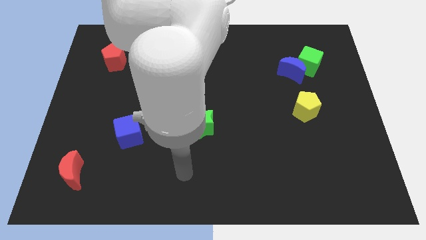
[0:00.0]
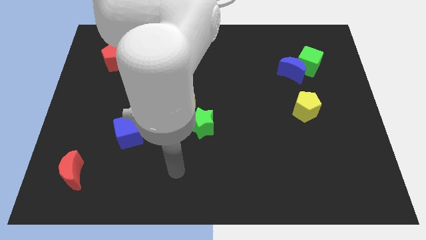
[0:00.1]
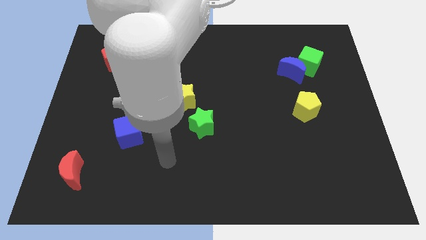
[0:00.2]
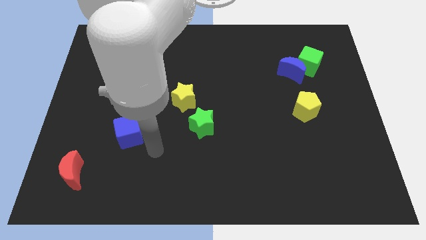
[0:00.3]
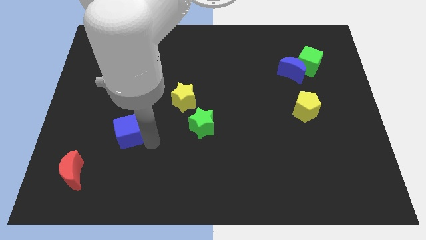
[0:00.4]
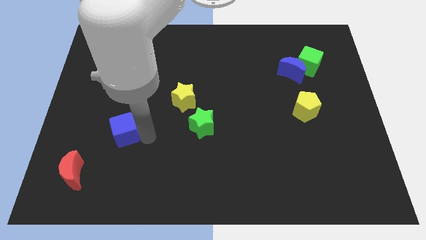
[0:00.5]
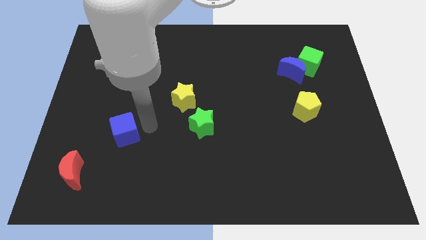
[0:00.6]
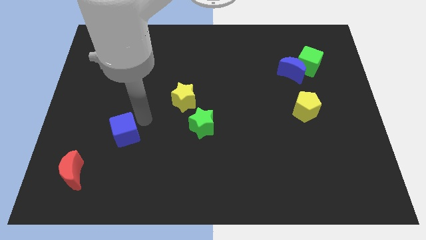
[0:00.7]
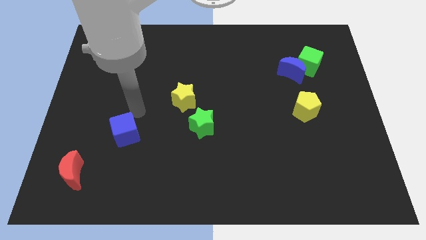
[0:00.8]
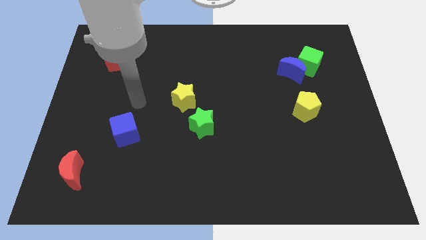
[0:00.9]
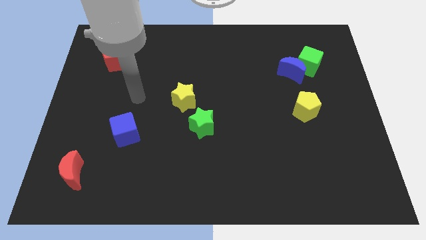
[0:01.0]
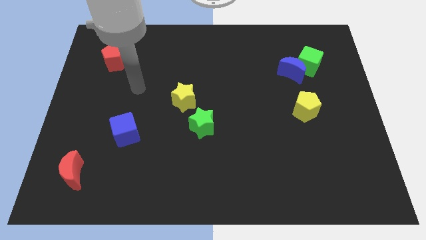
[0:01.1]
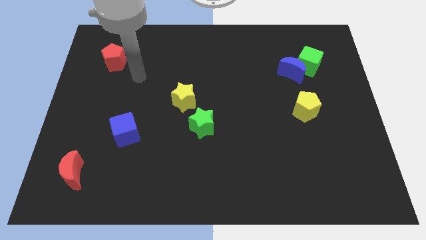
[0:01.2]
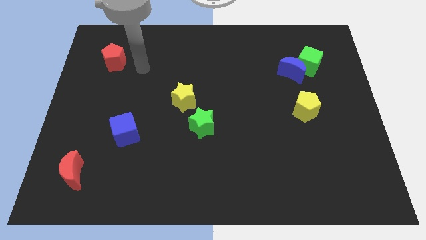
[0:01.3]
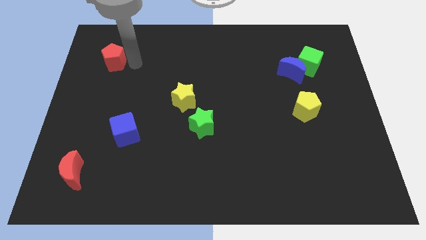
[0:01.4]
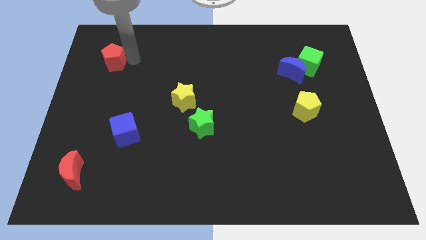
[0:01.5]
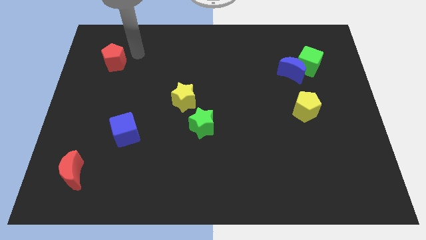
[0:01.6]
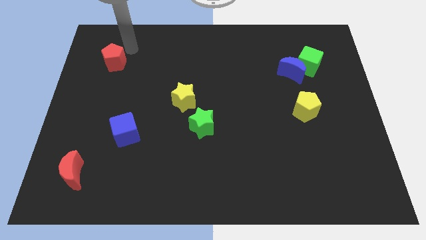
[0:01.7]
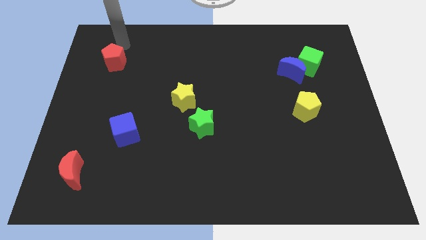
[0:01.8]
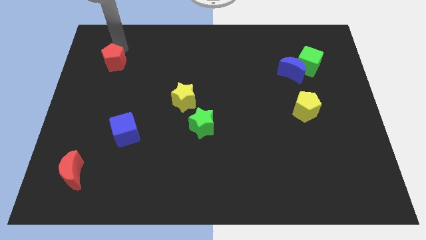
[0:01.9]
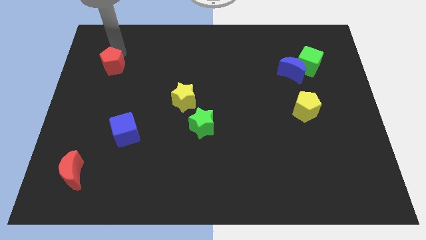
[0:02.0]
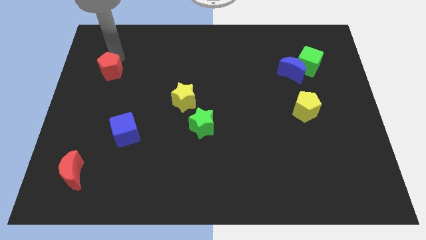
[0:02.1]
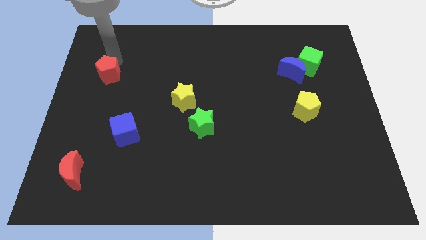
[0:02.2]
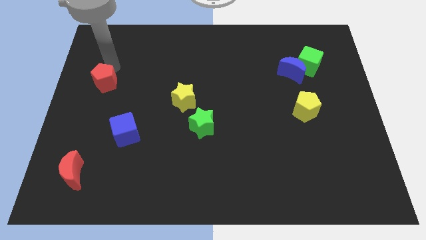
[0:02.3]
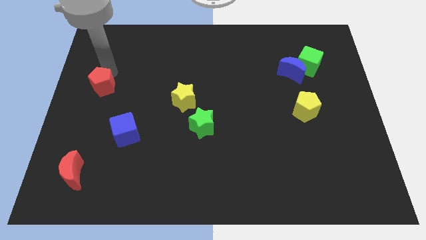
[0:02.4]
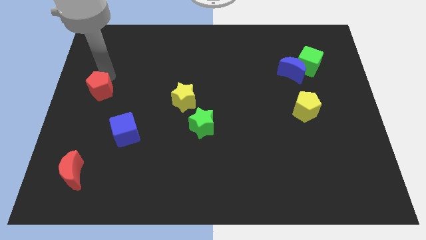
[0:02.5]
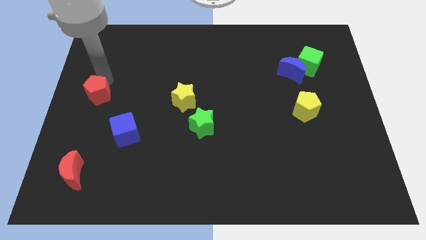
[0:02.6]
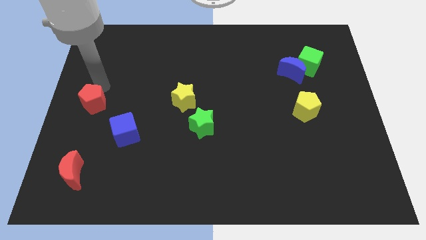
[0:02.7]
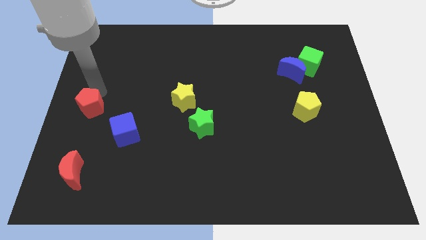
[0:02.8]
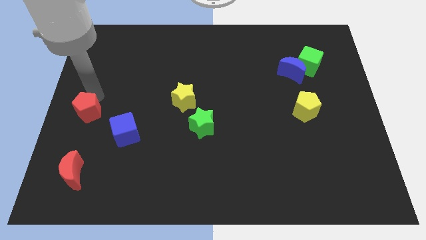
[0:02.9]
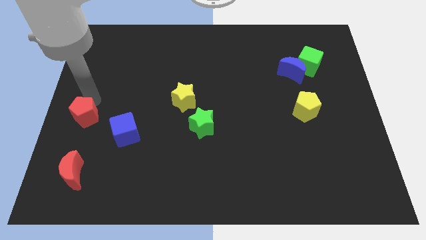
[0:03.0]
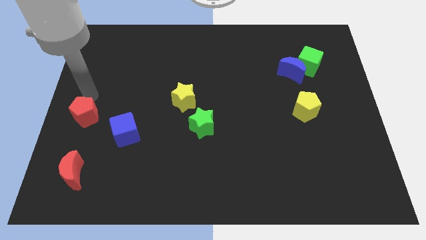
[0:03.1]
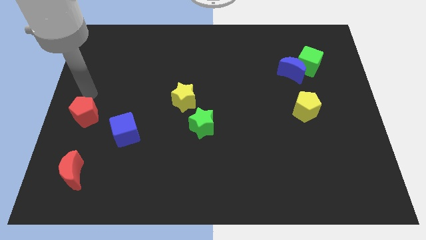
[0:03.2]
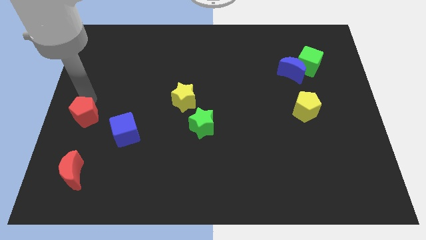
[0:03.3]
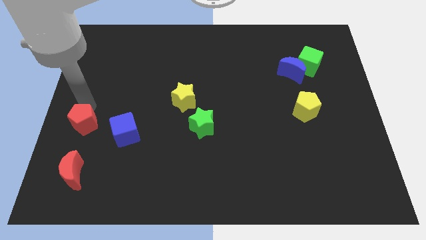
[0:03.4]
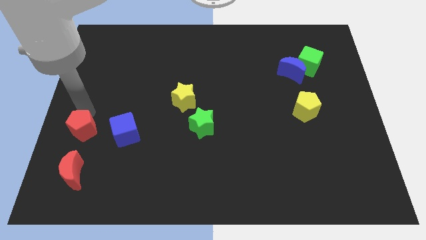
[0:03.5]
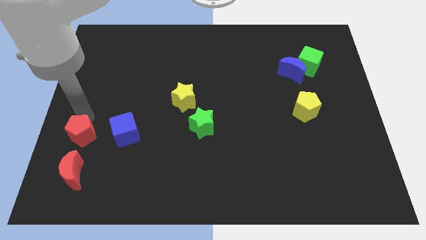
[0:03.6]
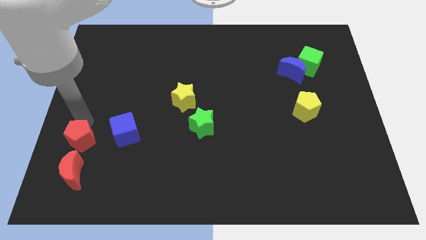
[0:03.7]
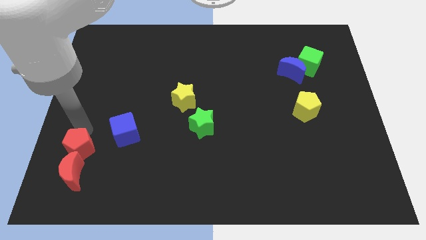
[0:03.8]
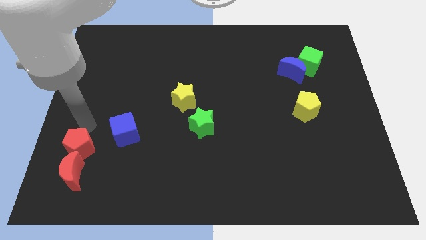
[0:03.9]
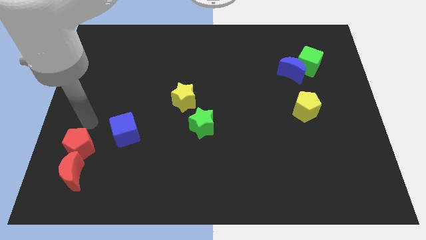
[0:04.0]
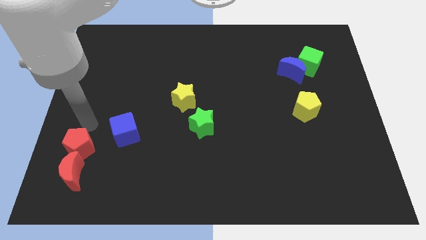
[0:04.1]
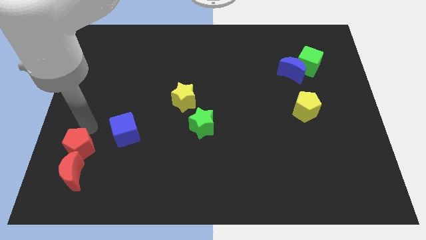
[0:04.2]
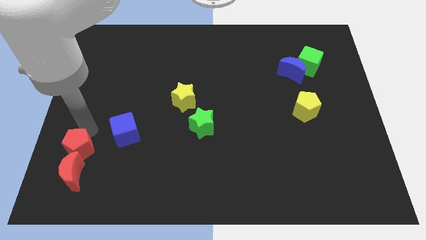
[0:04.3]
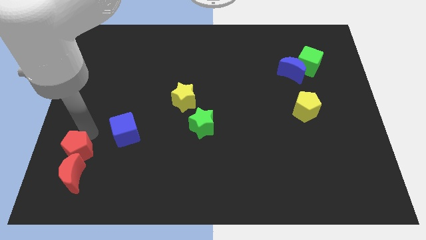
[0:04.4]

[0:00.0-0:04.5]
move the red pentagon next to the red moon

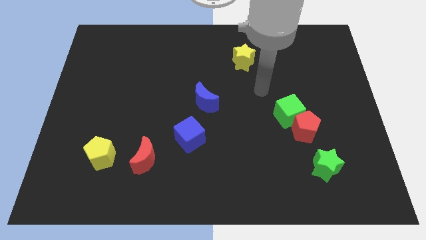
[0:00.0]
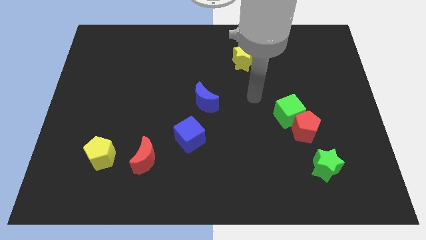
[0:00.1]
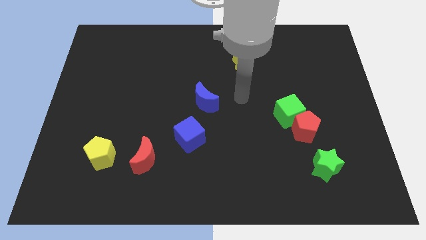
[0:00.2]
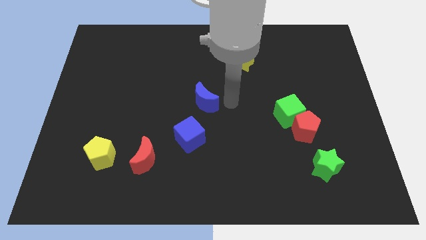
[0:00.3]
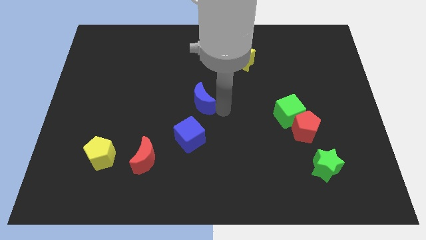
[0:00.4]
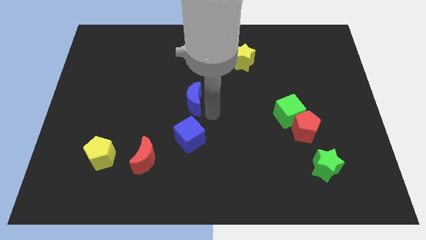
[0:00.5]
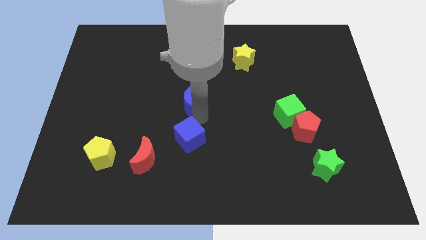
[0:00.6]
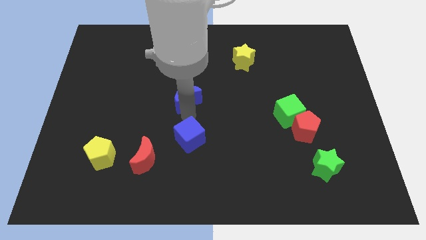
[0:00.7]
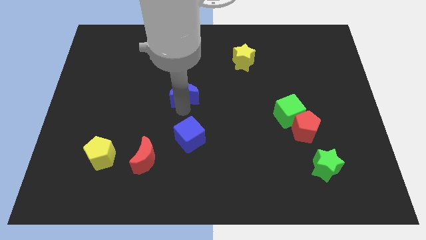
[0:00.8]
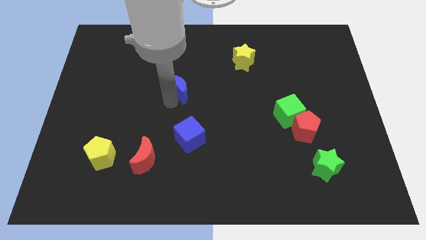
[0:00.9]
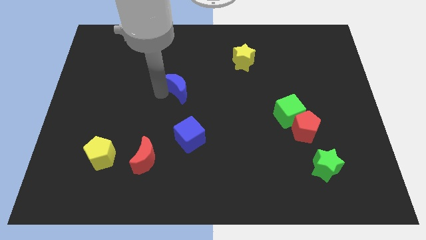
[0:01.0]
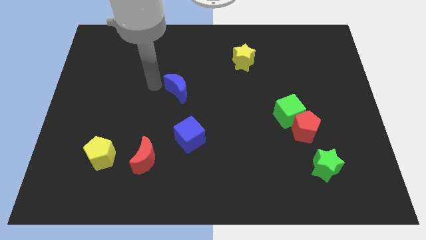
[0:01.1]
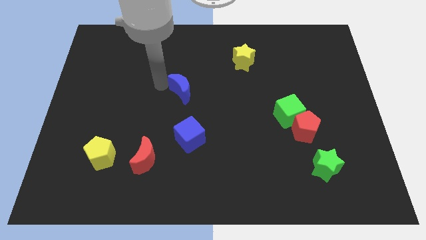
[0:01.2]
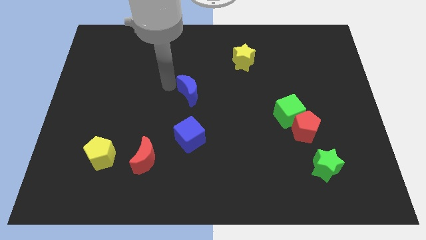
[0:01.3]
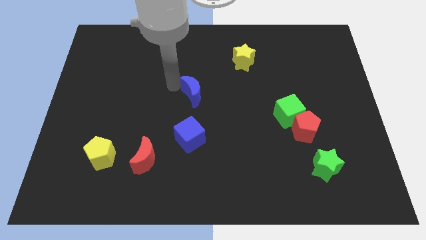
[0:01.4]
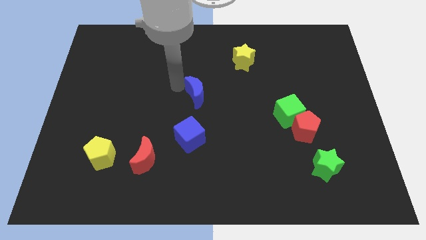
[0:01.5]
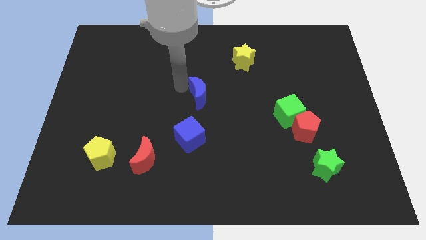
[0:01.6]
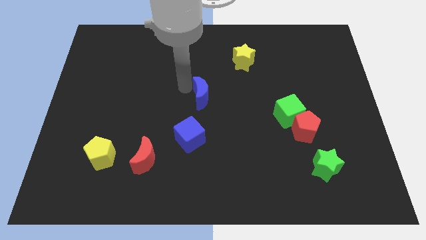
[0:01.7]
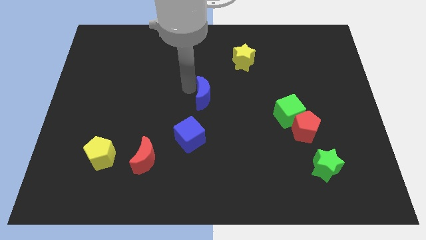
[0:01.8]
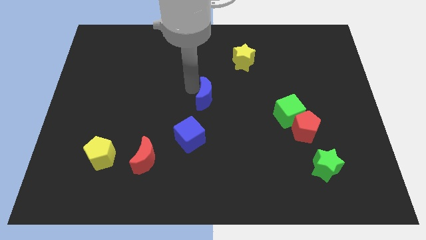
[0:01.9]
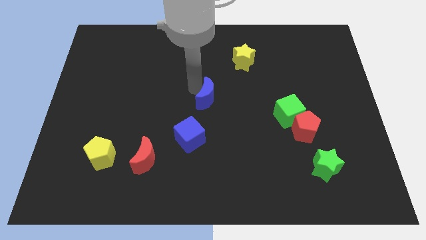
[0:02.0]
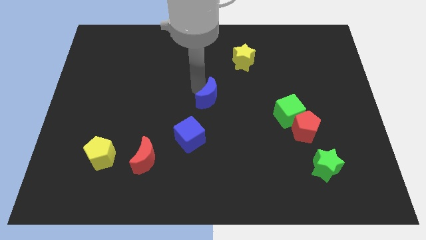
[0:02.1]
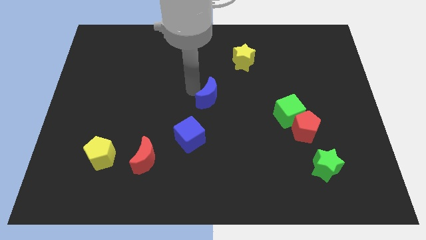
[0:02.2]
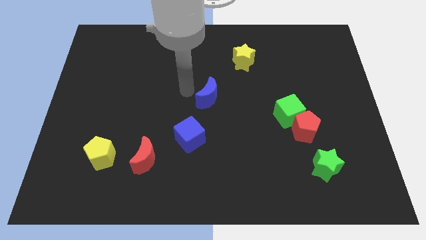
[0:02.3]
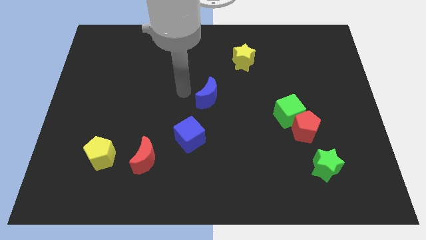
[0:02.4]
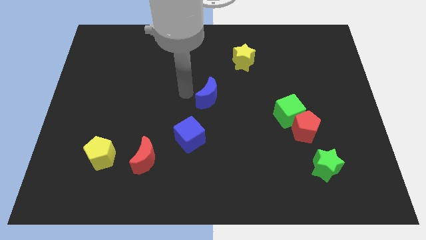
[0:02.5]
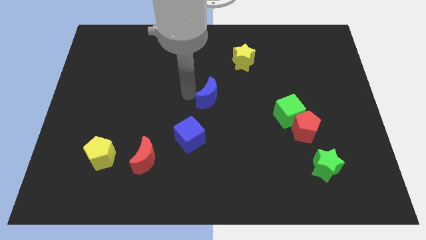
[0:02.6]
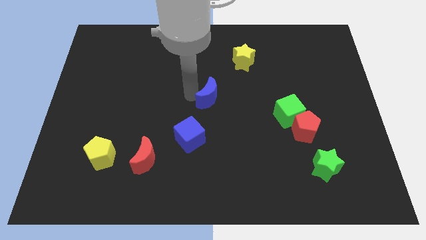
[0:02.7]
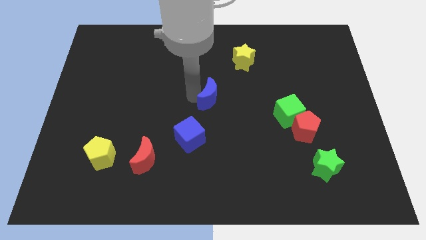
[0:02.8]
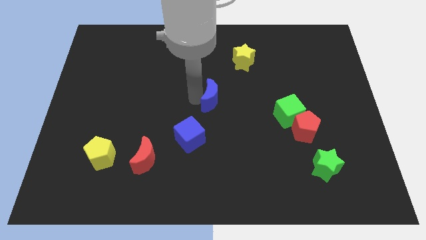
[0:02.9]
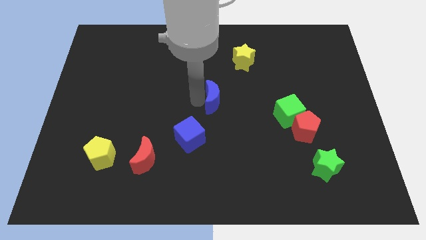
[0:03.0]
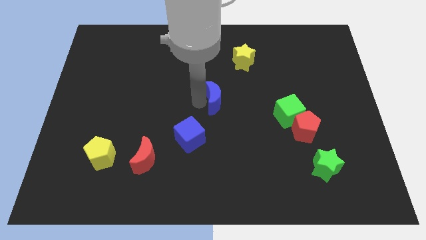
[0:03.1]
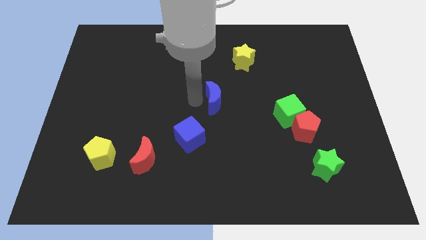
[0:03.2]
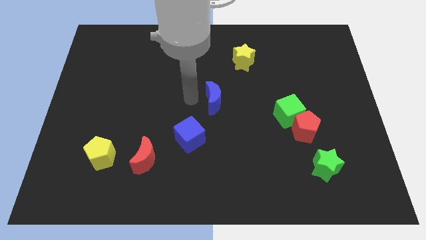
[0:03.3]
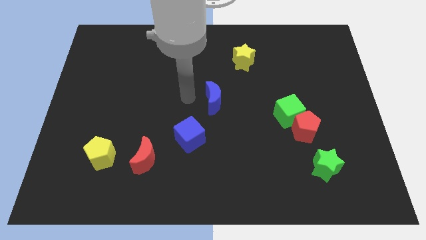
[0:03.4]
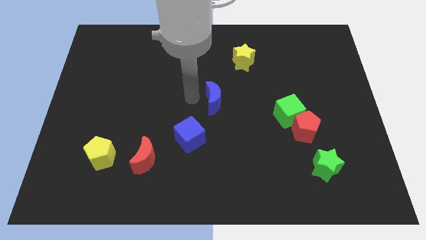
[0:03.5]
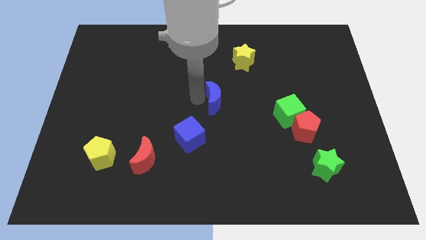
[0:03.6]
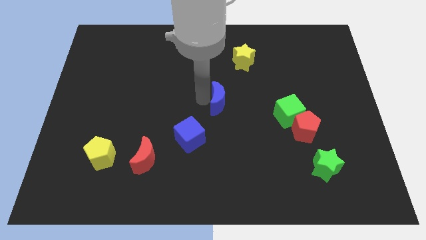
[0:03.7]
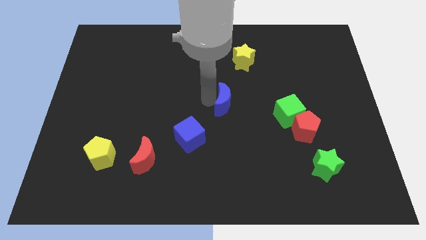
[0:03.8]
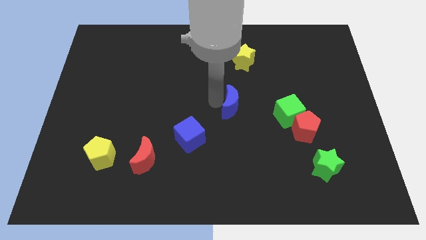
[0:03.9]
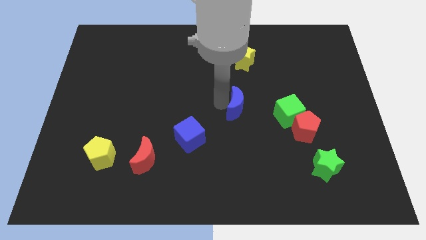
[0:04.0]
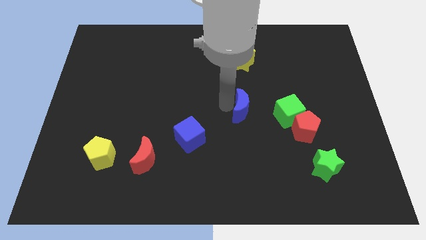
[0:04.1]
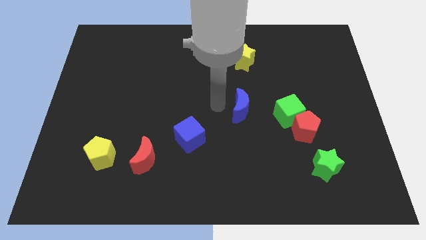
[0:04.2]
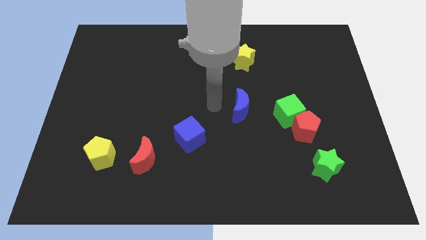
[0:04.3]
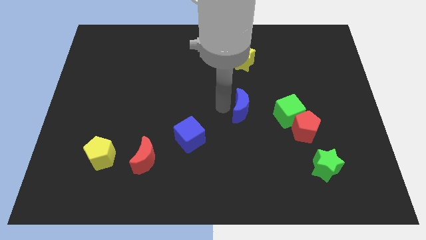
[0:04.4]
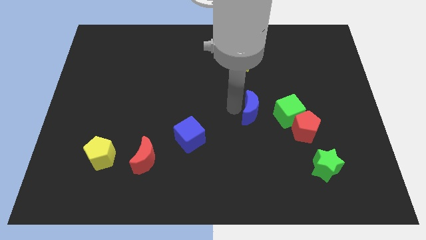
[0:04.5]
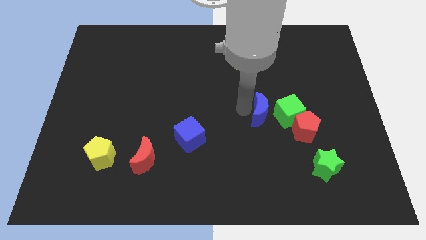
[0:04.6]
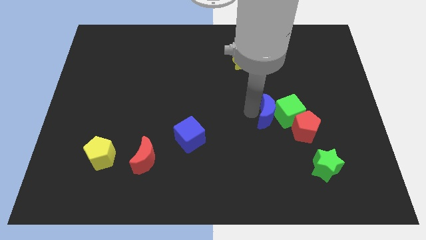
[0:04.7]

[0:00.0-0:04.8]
slide the blue moon towards the green cube
